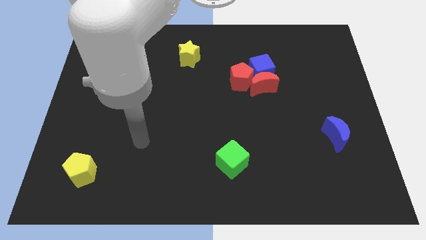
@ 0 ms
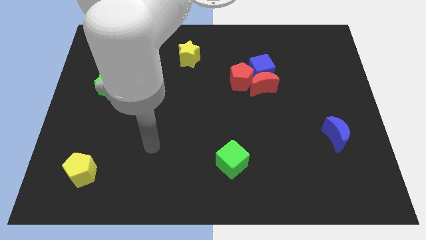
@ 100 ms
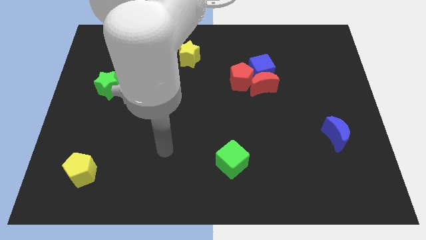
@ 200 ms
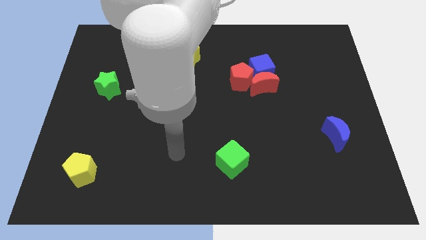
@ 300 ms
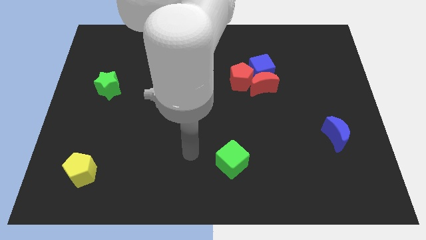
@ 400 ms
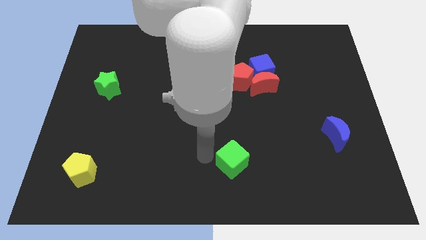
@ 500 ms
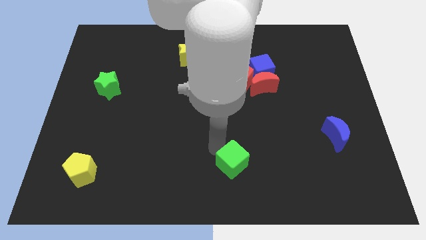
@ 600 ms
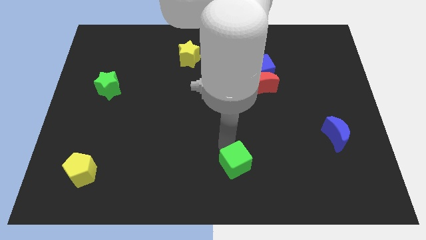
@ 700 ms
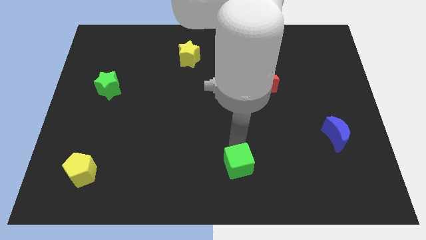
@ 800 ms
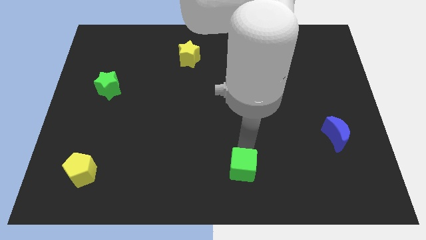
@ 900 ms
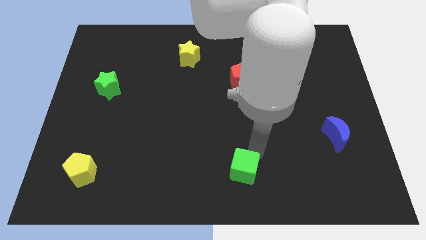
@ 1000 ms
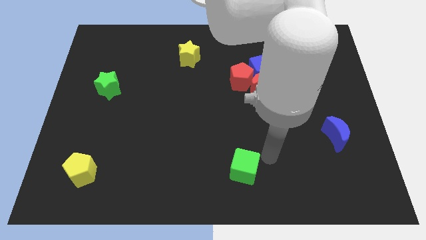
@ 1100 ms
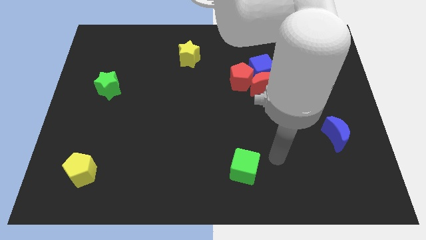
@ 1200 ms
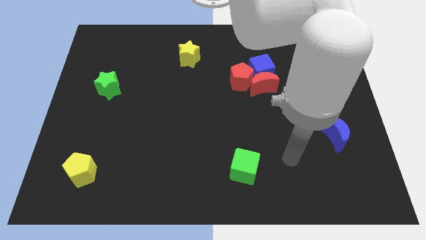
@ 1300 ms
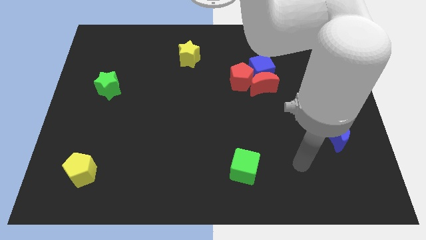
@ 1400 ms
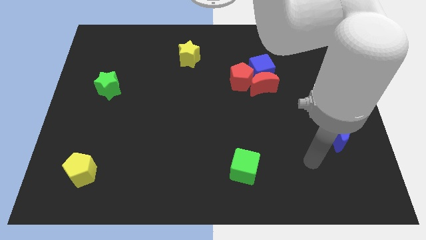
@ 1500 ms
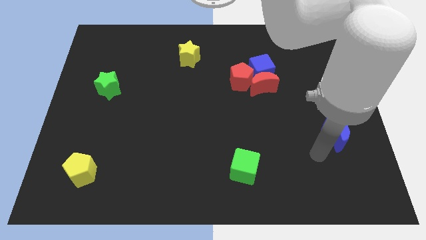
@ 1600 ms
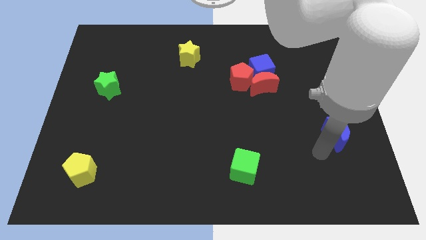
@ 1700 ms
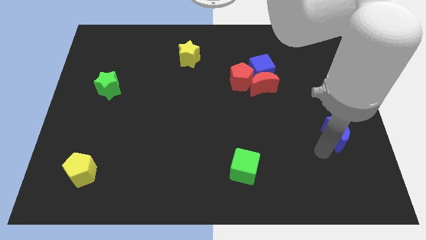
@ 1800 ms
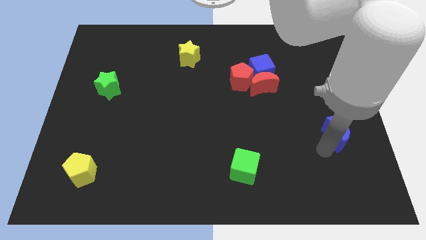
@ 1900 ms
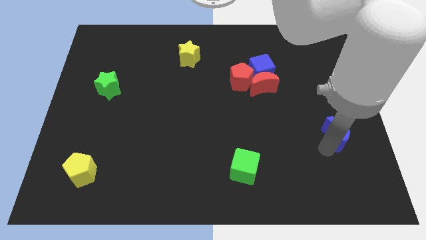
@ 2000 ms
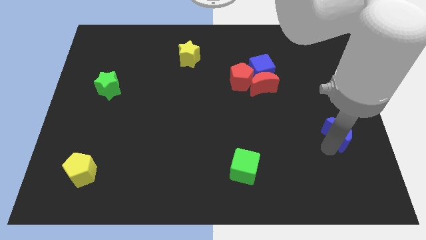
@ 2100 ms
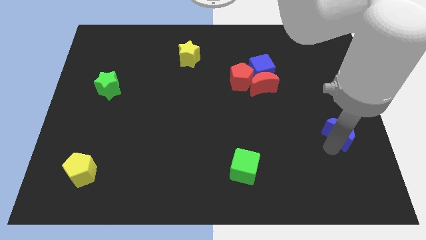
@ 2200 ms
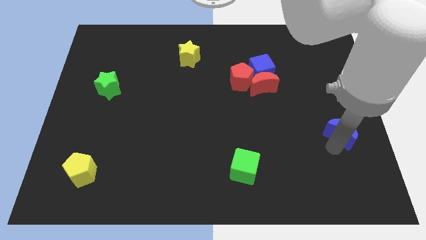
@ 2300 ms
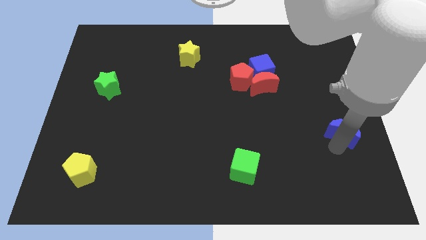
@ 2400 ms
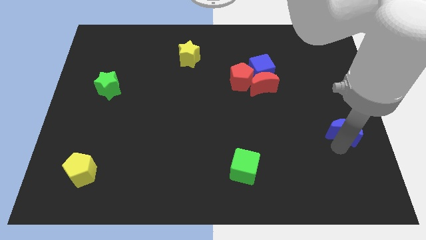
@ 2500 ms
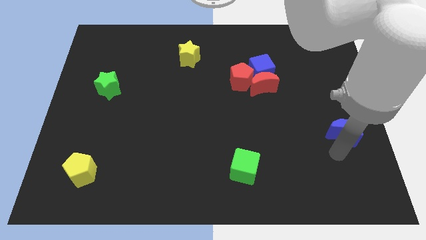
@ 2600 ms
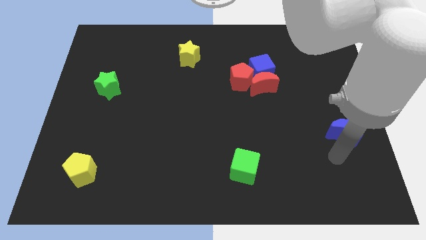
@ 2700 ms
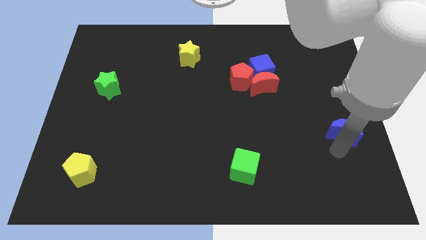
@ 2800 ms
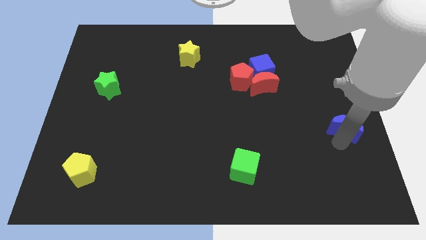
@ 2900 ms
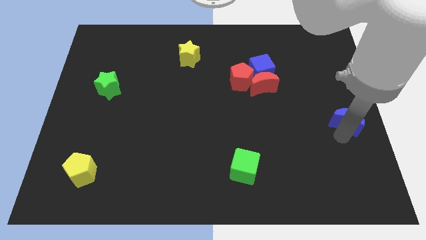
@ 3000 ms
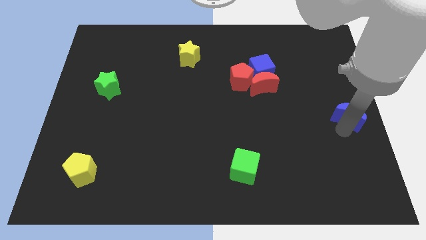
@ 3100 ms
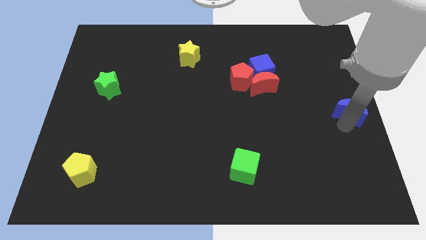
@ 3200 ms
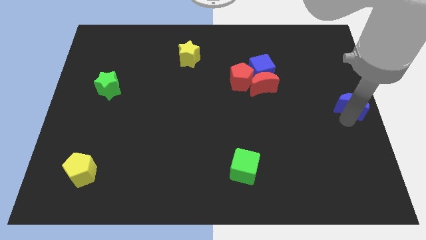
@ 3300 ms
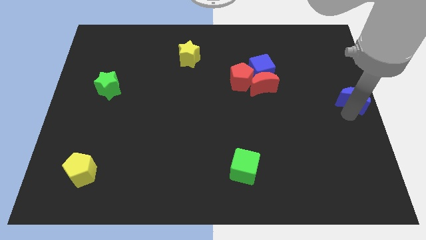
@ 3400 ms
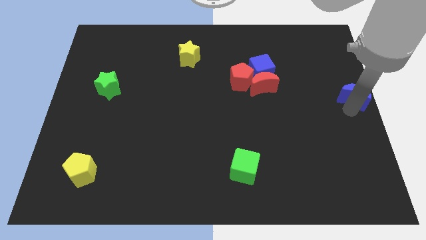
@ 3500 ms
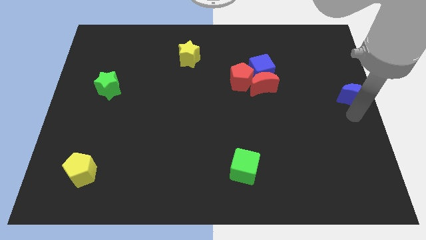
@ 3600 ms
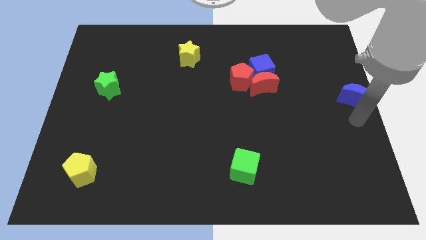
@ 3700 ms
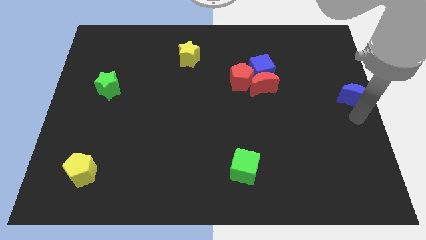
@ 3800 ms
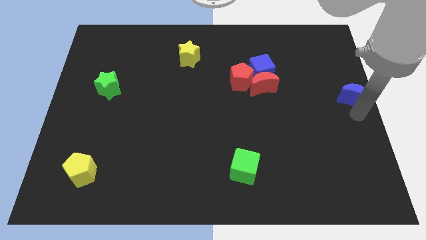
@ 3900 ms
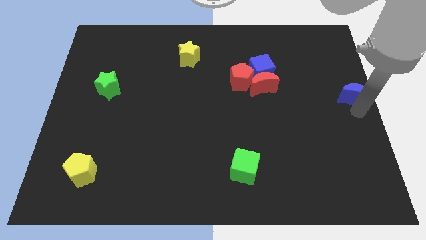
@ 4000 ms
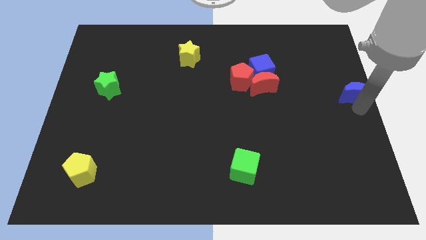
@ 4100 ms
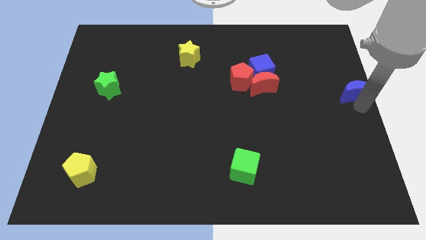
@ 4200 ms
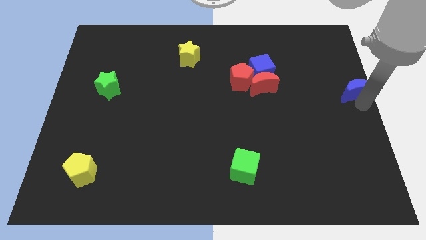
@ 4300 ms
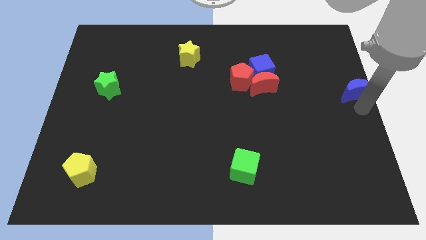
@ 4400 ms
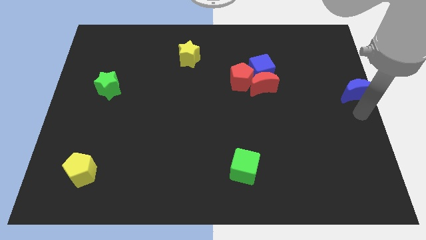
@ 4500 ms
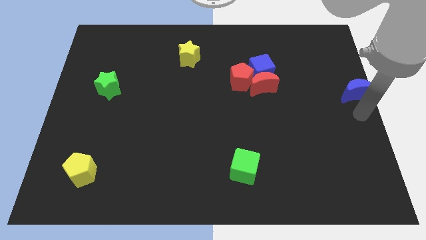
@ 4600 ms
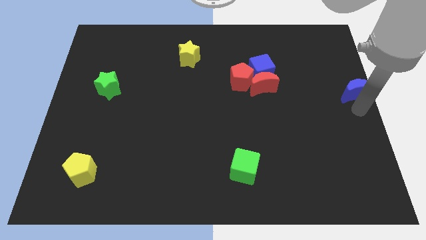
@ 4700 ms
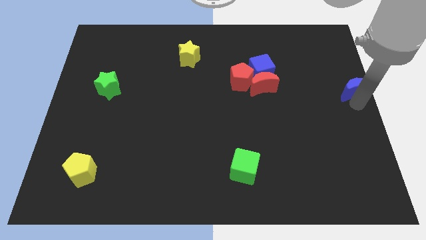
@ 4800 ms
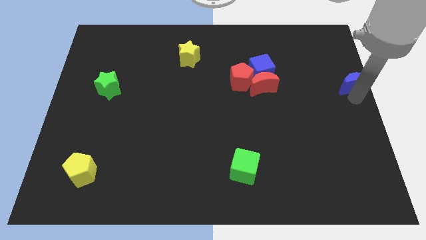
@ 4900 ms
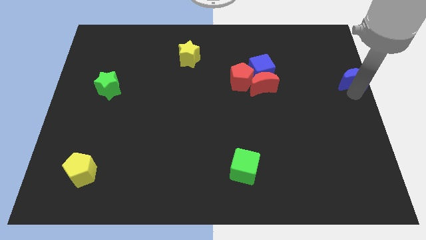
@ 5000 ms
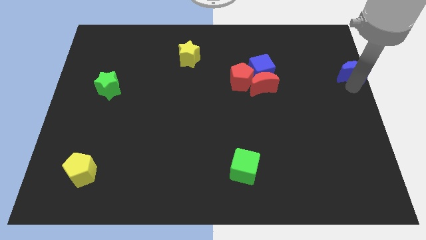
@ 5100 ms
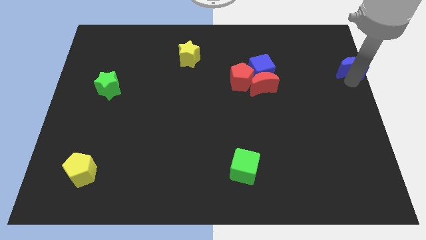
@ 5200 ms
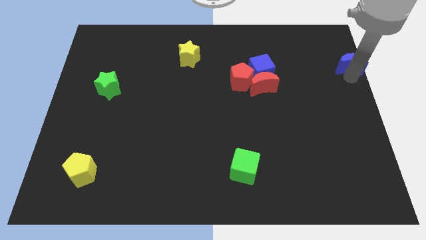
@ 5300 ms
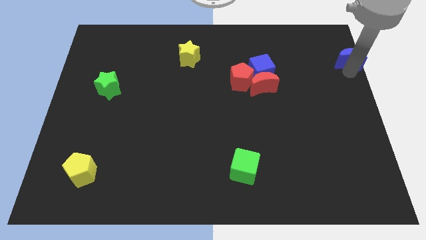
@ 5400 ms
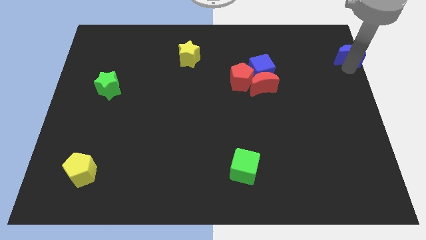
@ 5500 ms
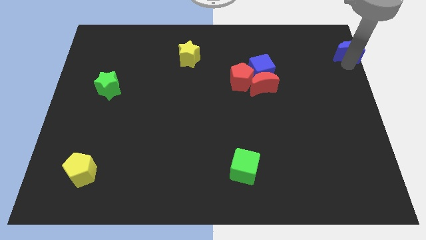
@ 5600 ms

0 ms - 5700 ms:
move the blue moon to the top right of the board
